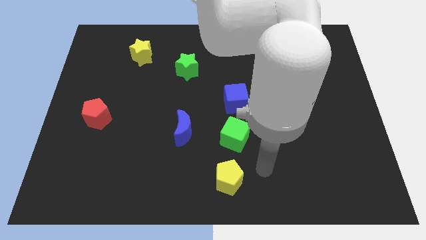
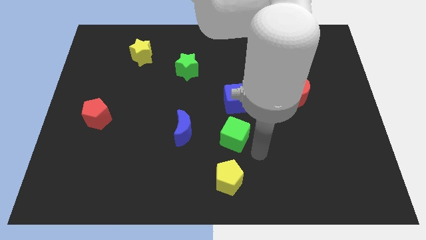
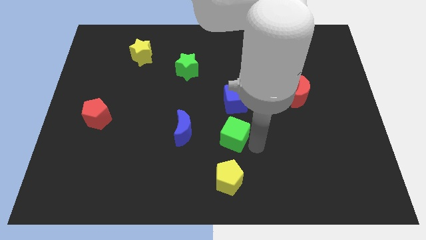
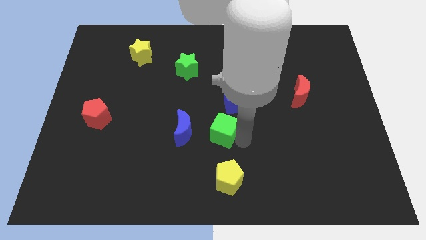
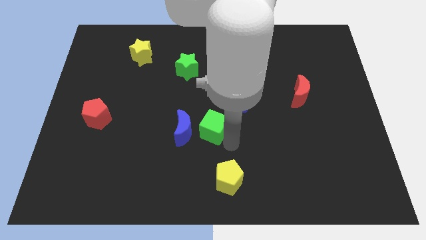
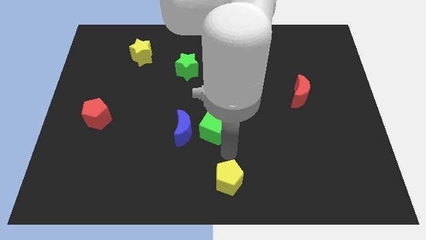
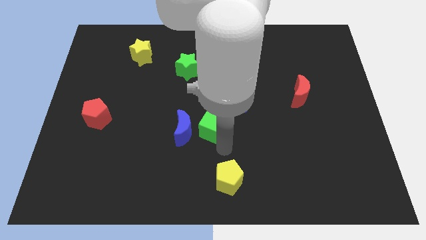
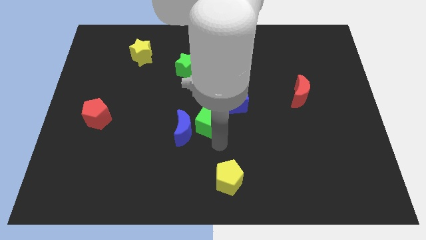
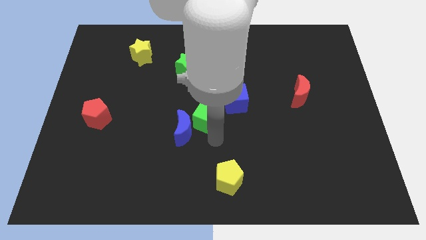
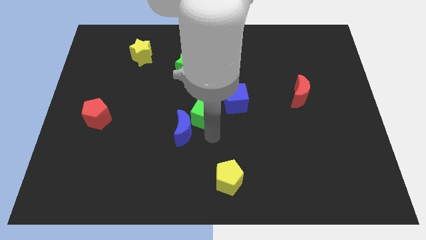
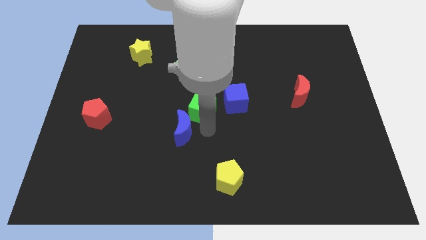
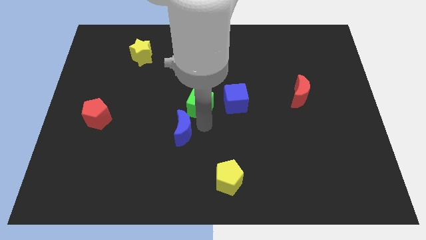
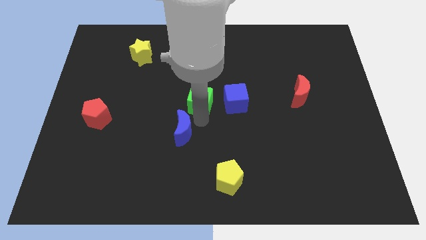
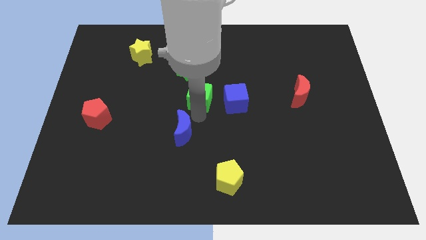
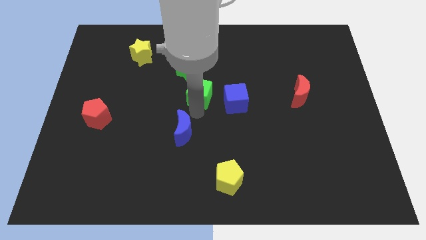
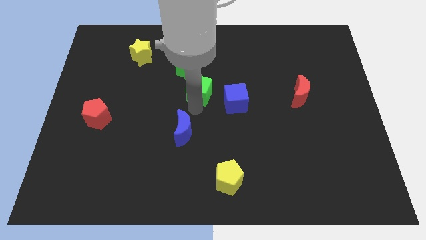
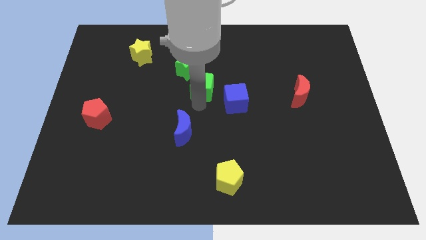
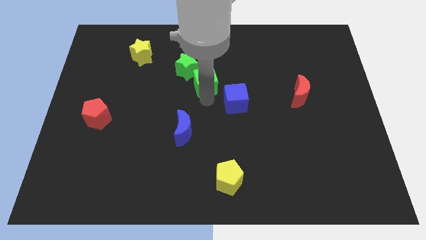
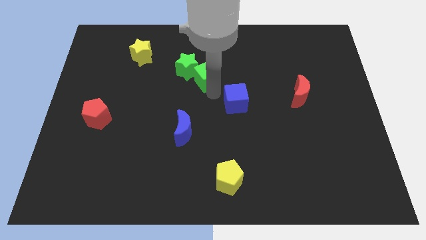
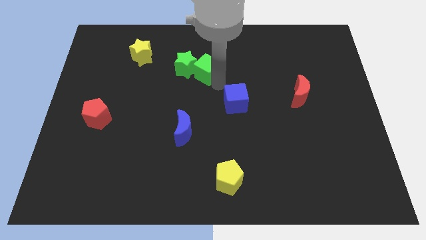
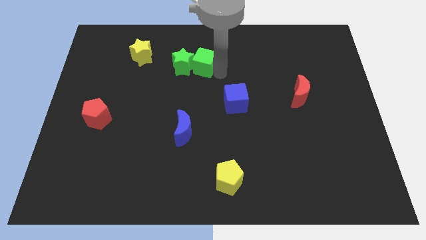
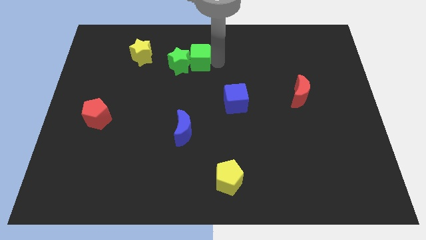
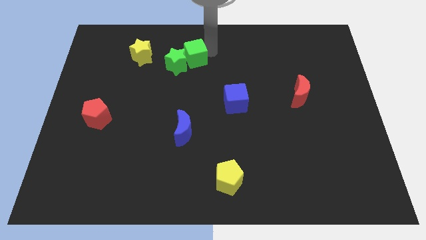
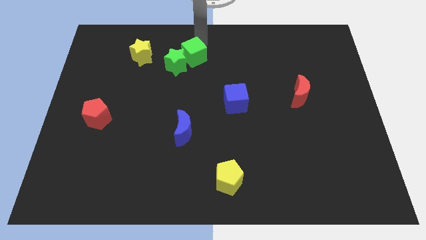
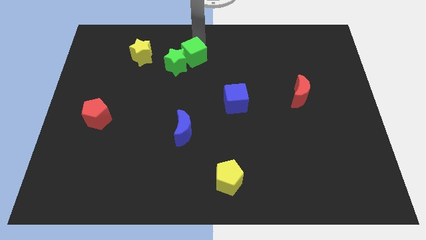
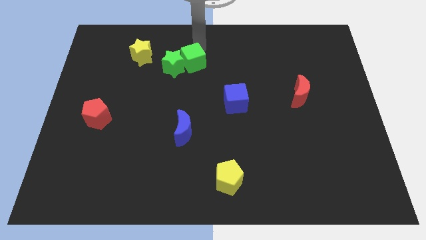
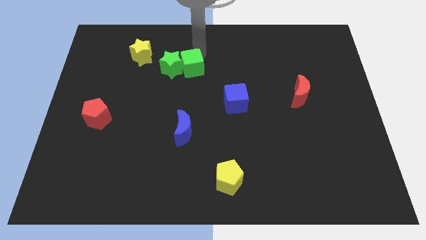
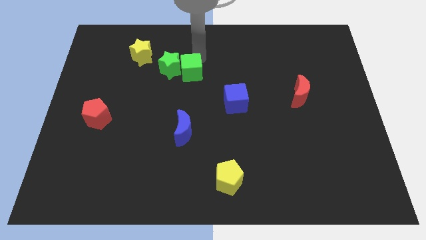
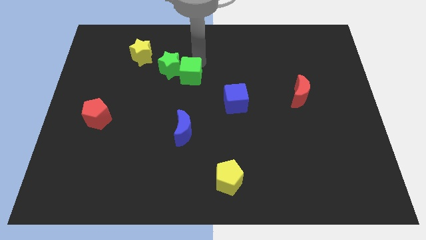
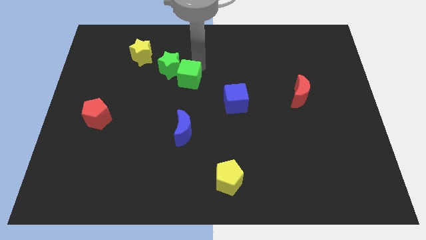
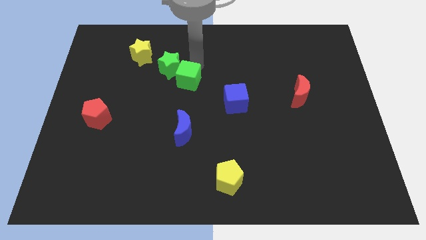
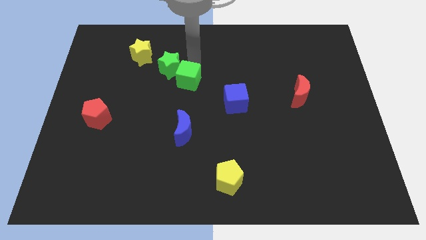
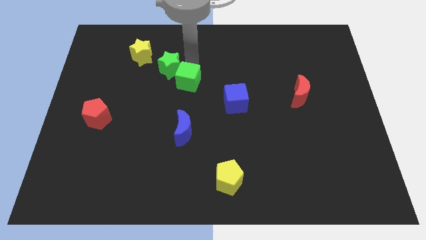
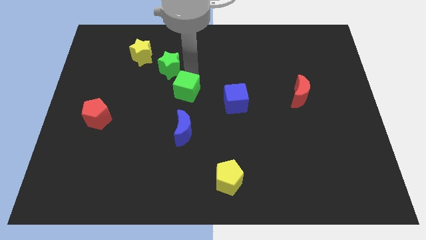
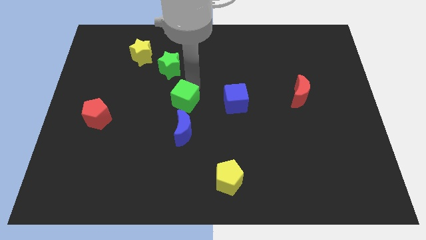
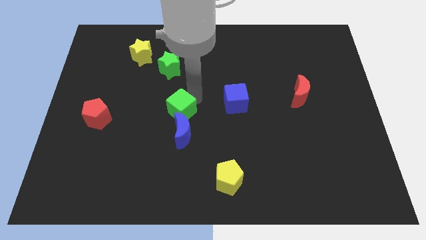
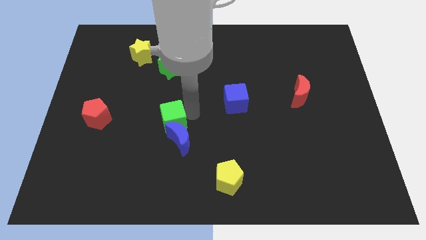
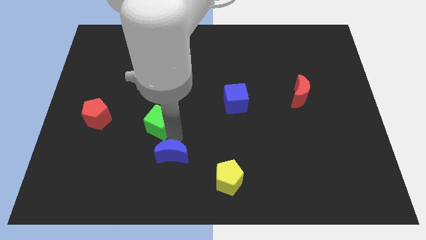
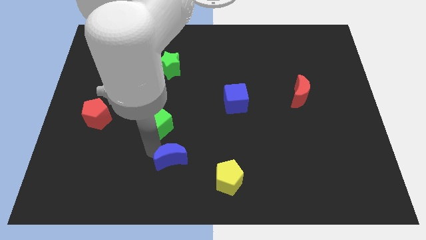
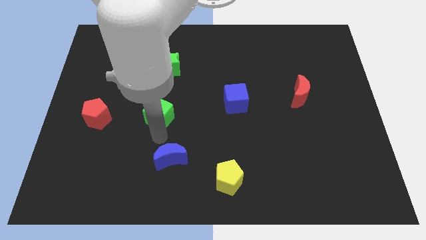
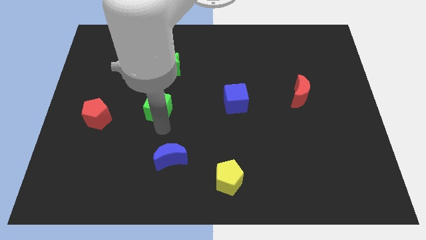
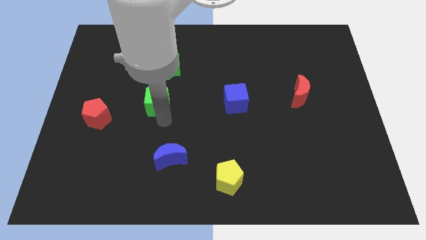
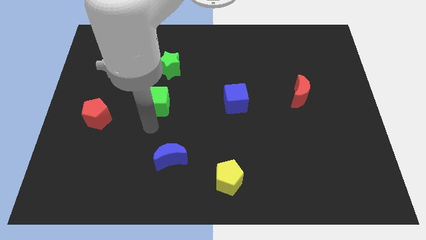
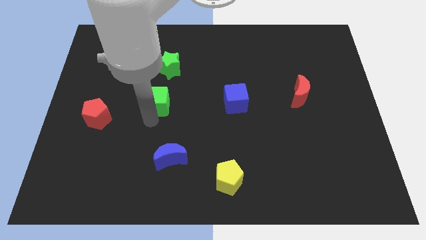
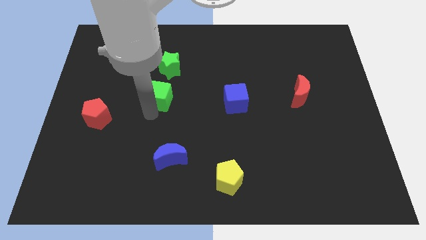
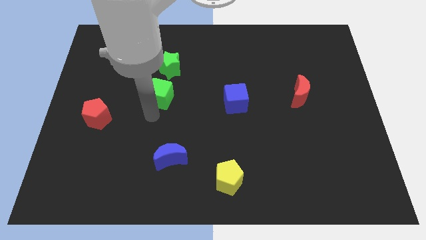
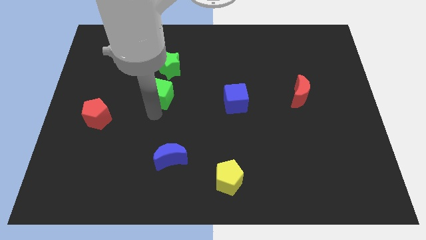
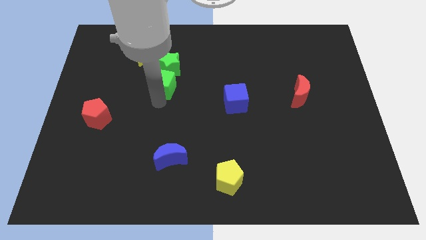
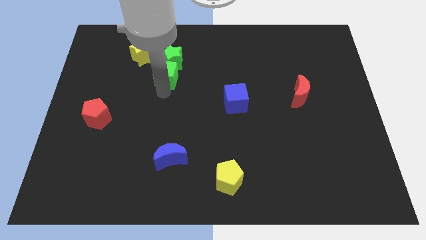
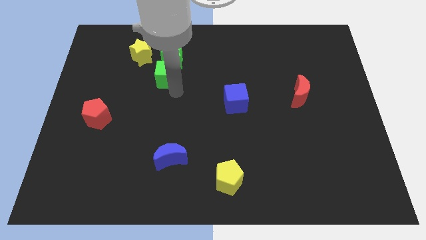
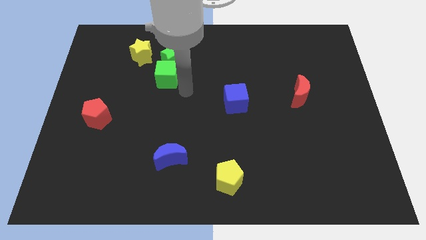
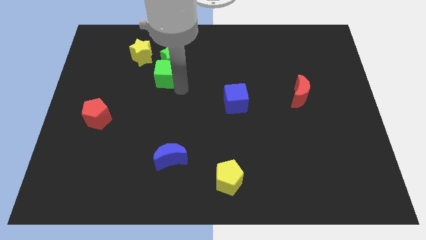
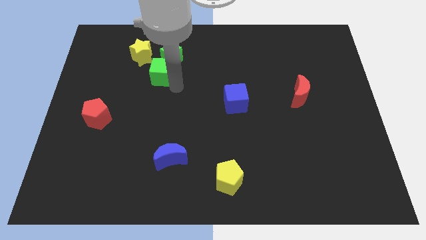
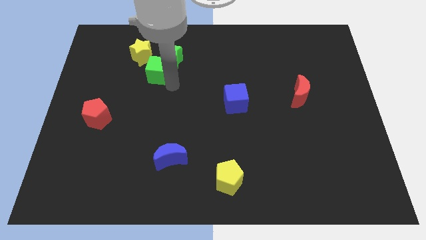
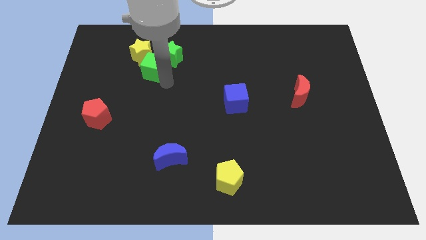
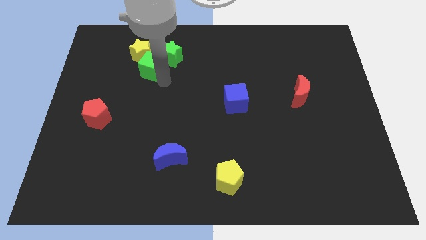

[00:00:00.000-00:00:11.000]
move the green cube next to the yellow star

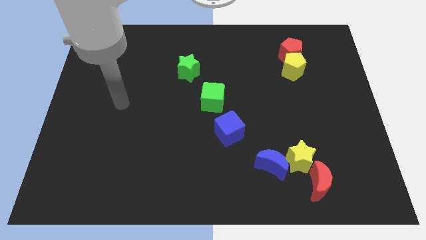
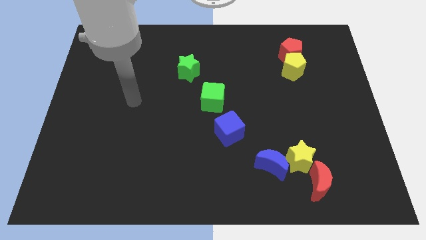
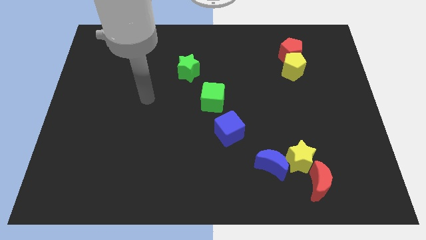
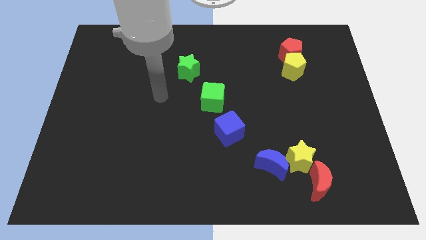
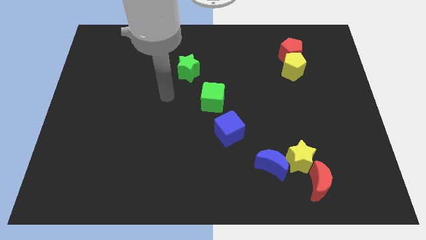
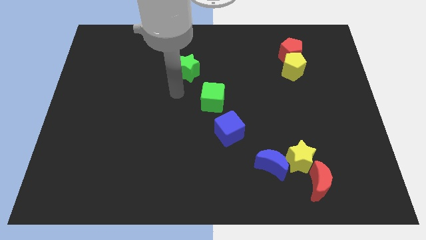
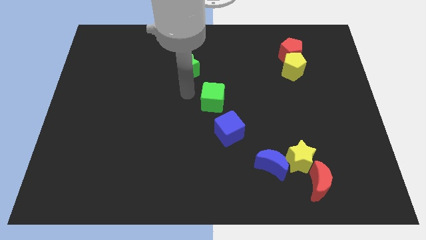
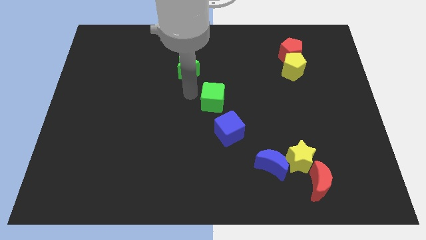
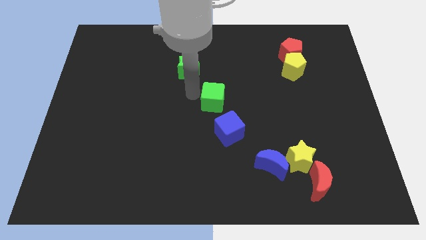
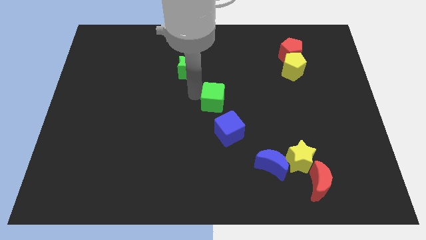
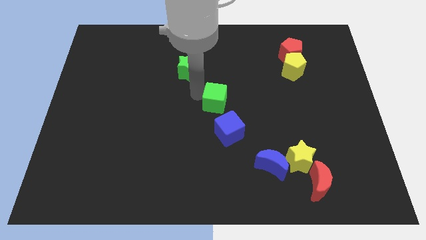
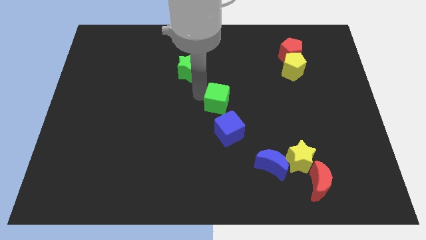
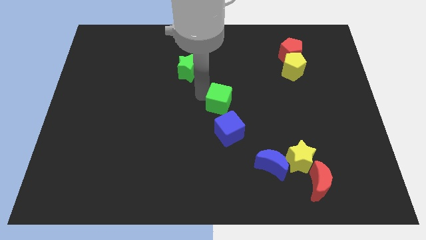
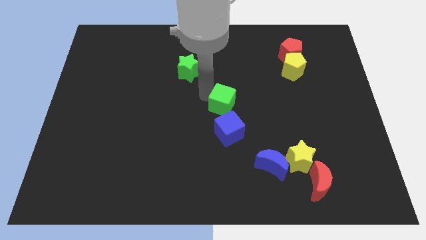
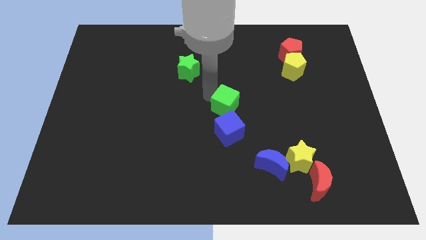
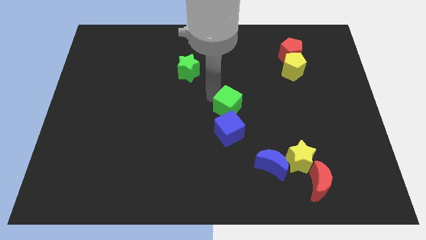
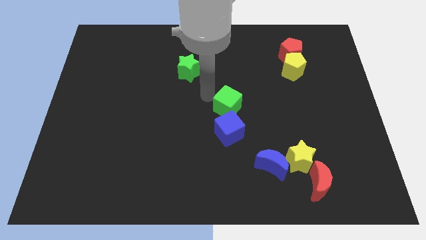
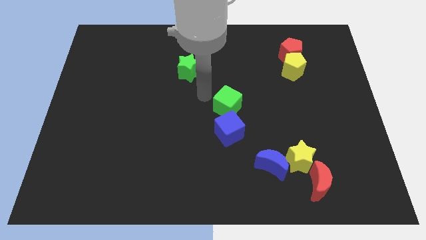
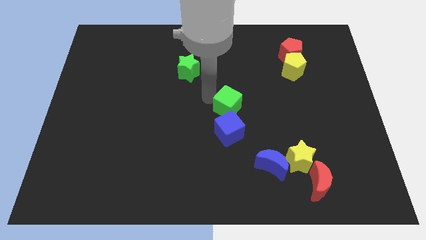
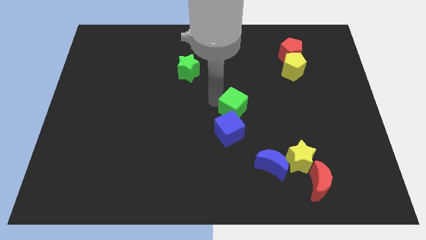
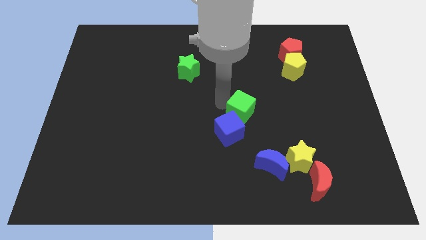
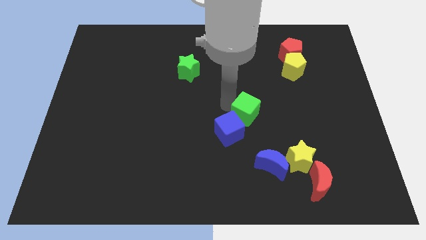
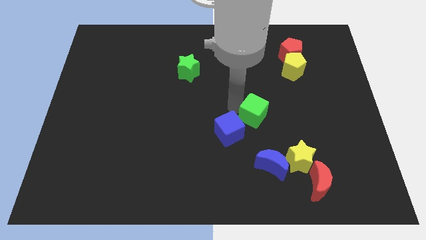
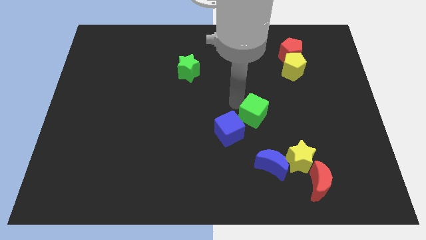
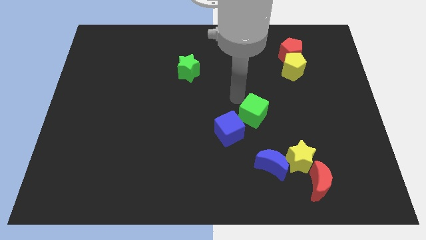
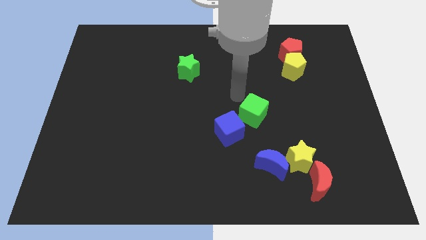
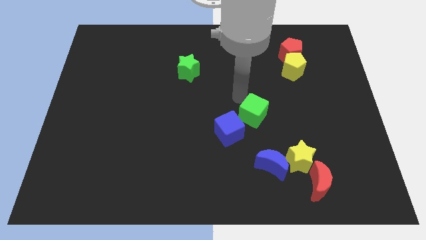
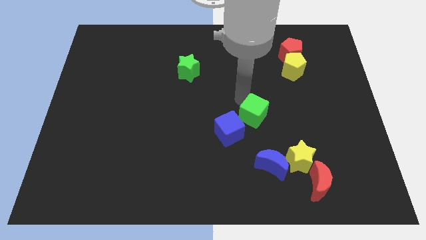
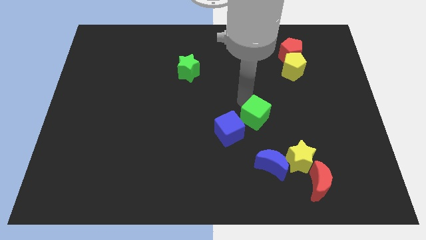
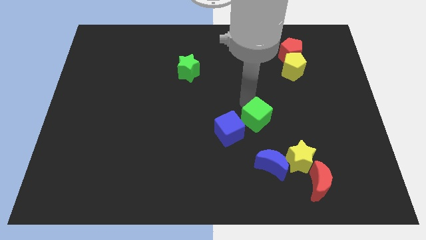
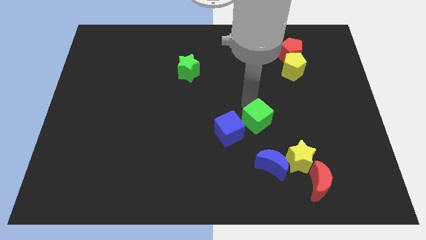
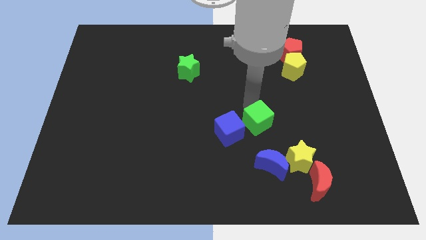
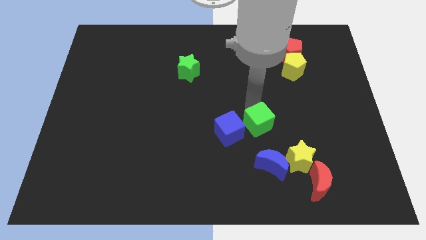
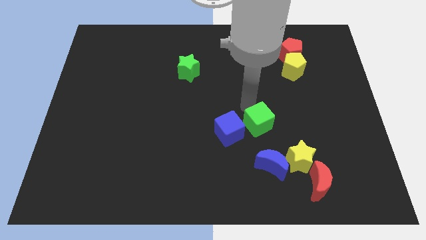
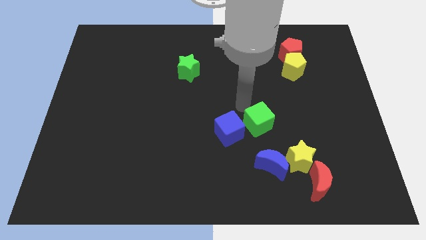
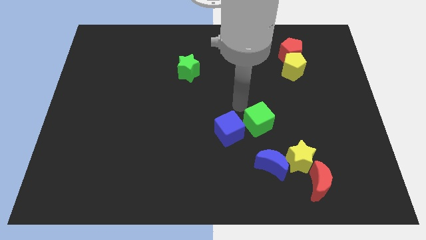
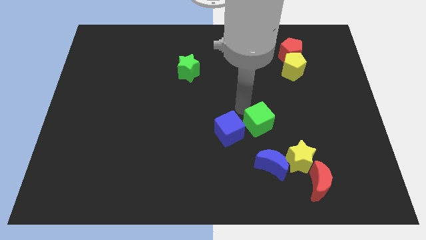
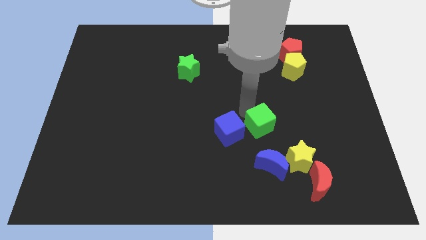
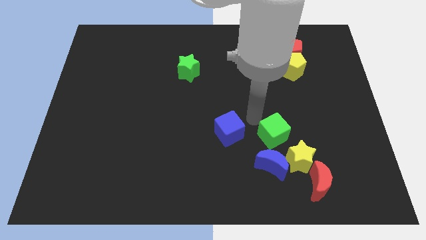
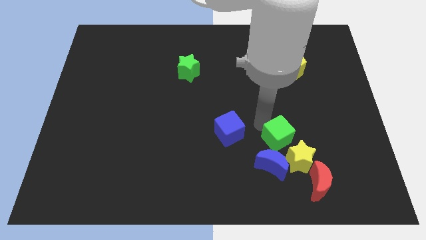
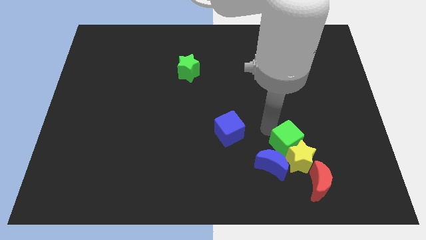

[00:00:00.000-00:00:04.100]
slide the green cube to the yellow star
